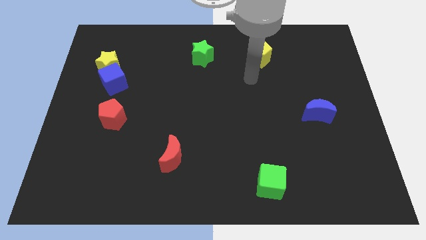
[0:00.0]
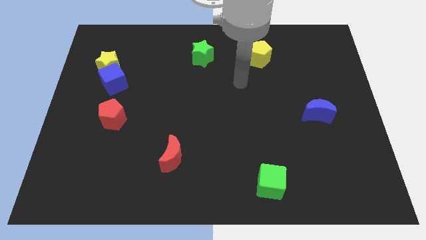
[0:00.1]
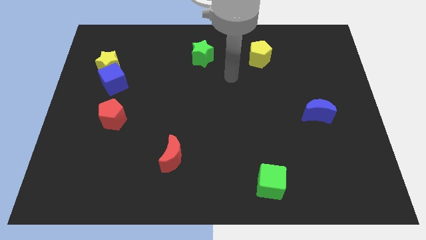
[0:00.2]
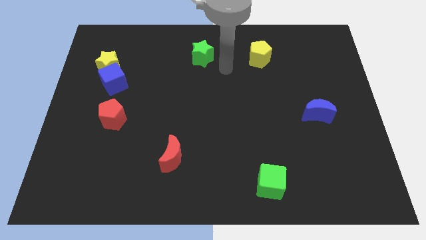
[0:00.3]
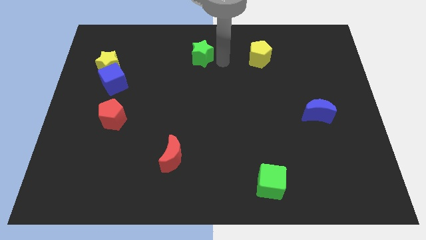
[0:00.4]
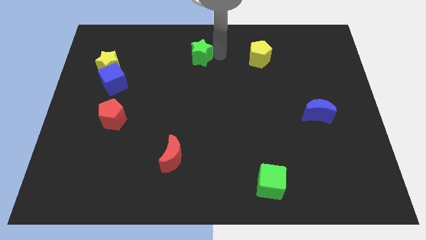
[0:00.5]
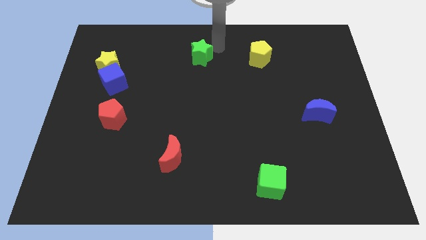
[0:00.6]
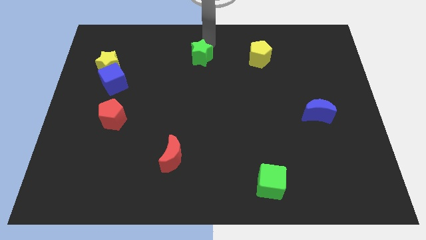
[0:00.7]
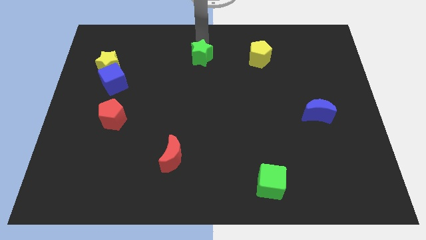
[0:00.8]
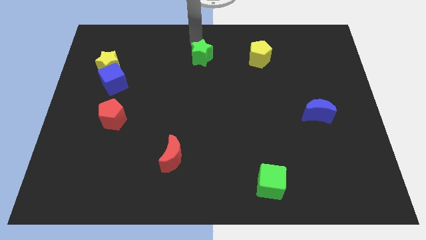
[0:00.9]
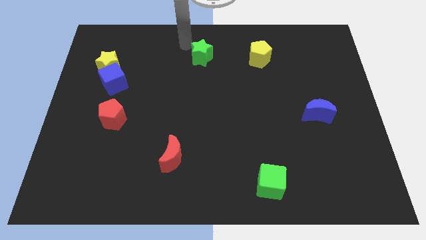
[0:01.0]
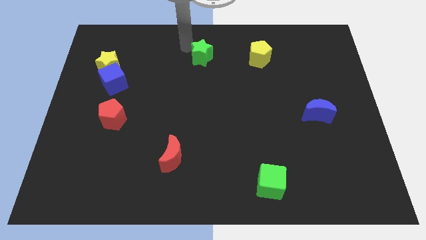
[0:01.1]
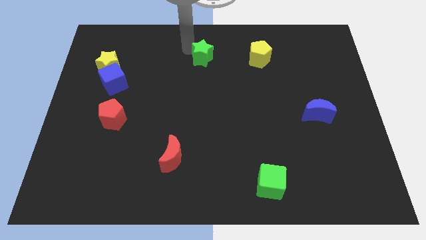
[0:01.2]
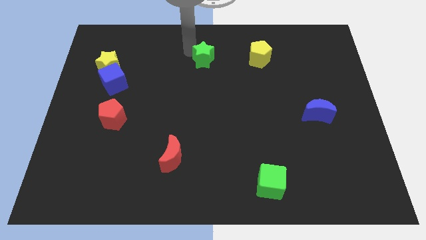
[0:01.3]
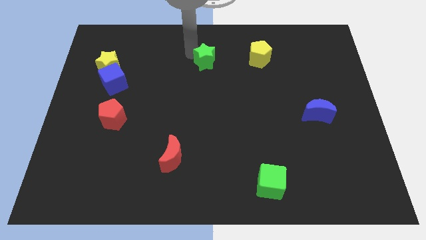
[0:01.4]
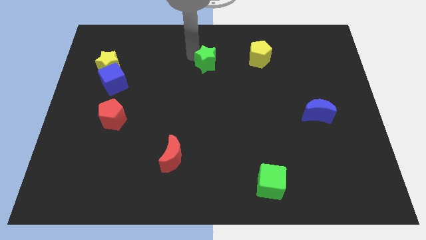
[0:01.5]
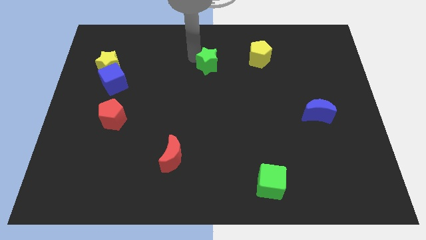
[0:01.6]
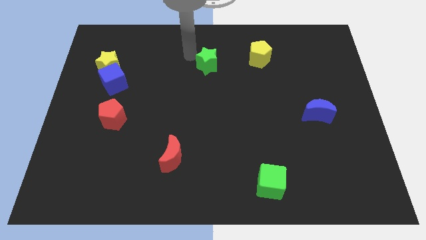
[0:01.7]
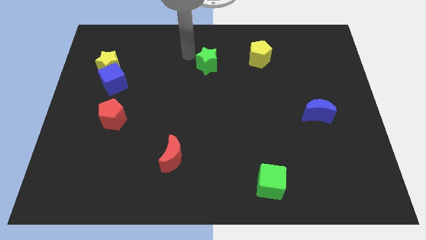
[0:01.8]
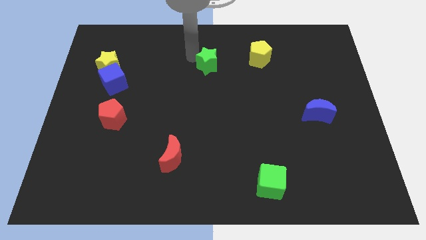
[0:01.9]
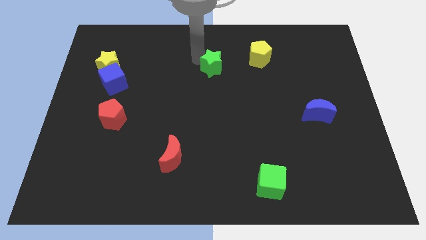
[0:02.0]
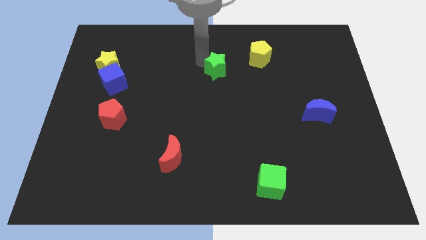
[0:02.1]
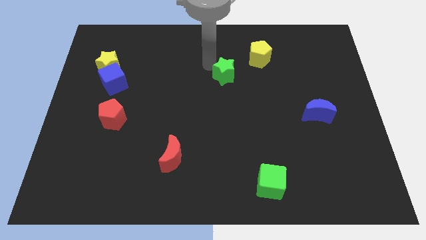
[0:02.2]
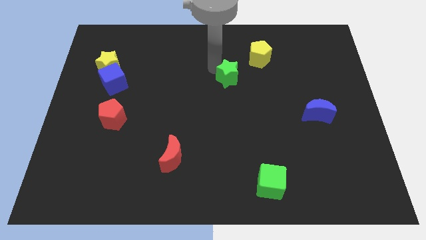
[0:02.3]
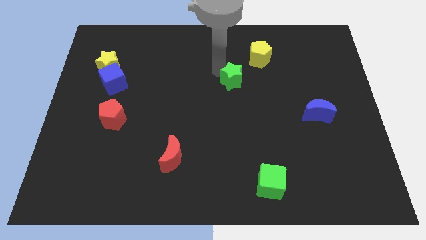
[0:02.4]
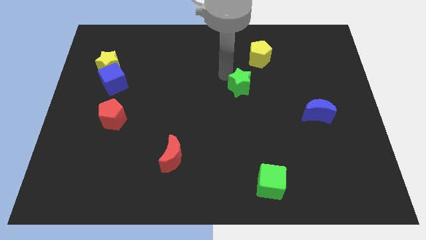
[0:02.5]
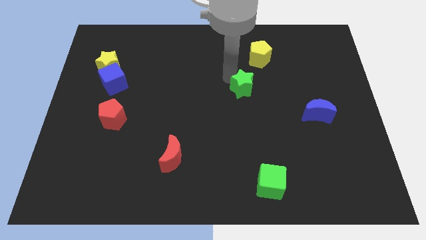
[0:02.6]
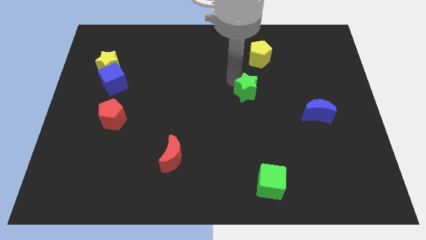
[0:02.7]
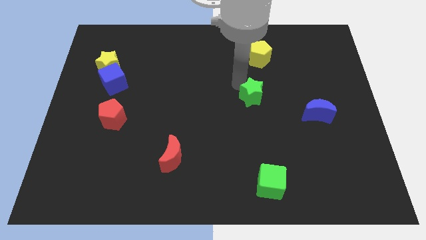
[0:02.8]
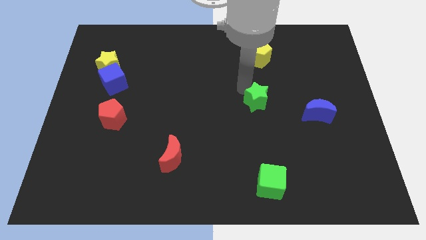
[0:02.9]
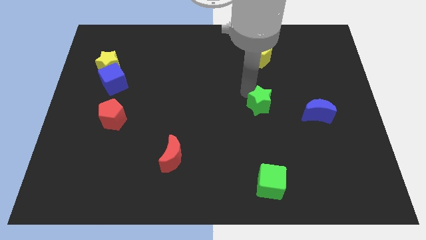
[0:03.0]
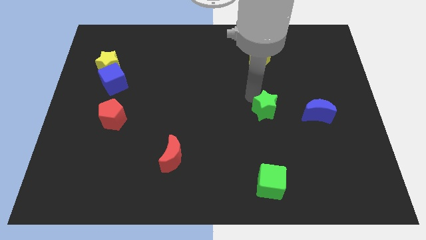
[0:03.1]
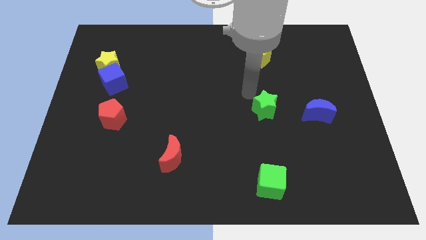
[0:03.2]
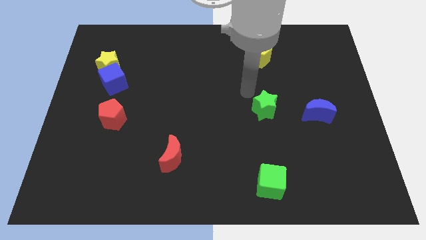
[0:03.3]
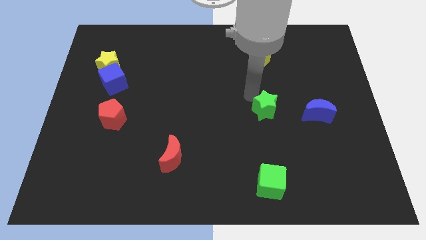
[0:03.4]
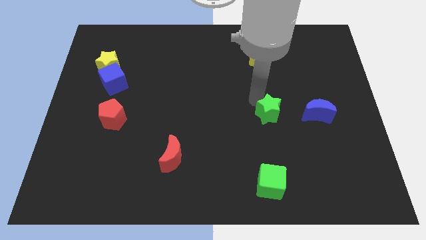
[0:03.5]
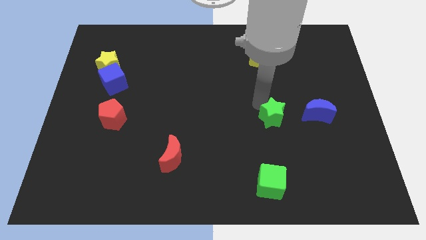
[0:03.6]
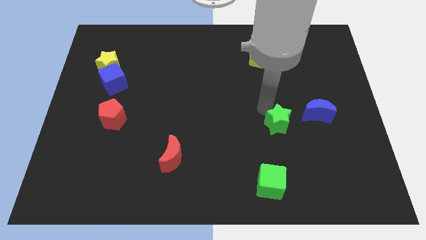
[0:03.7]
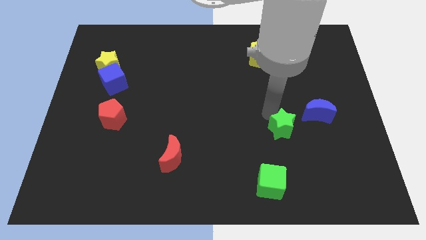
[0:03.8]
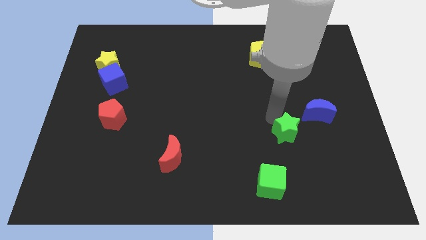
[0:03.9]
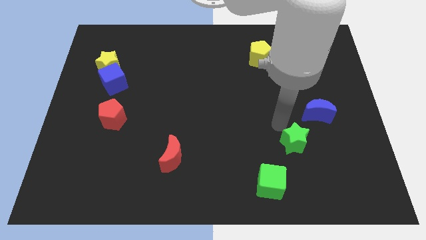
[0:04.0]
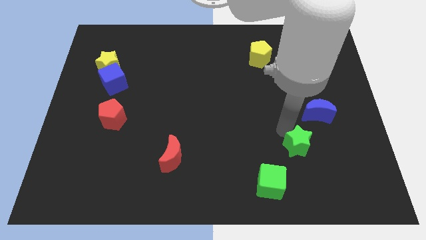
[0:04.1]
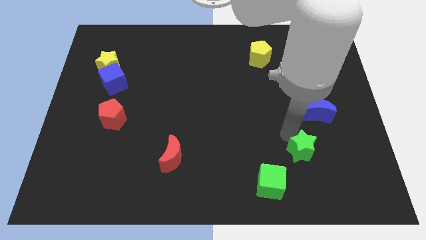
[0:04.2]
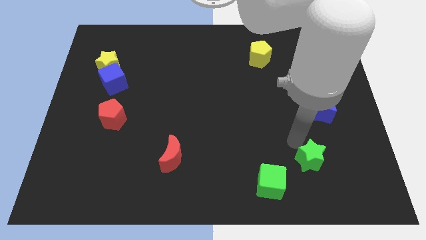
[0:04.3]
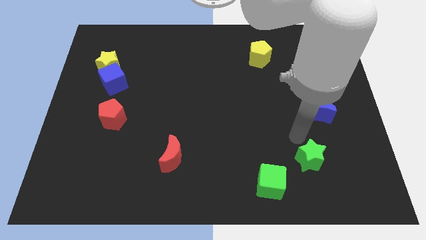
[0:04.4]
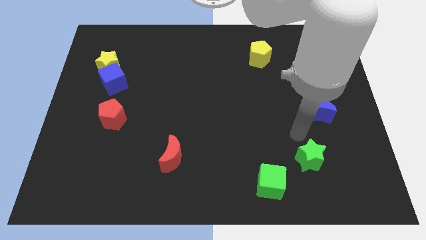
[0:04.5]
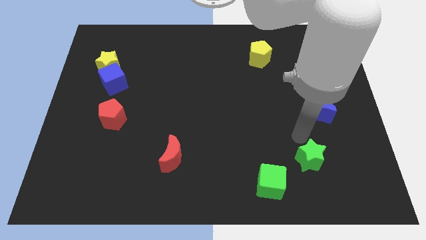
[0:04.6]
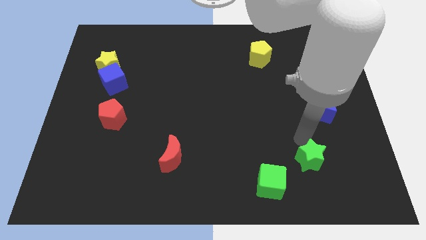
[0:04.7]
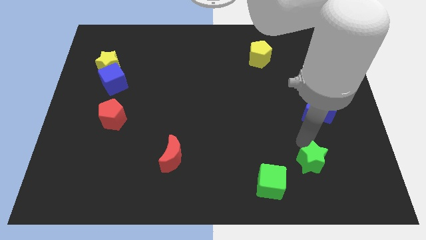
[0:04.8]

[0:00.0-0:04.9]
slide the green star to the right of the green cube

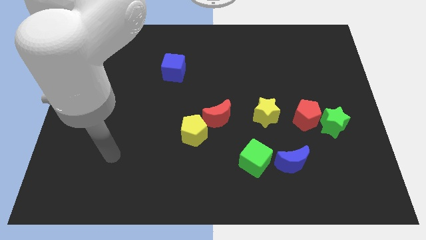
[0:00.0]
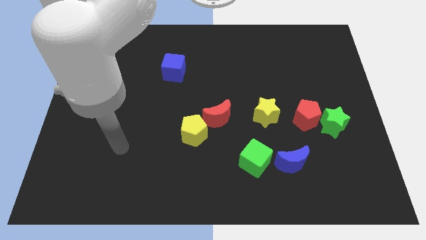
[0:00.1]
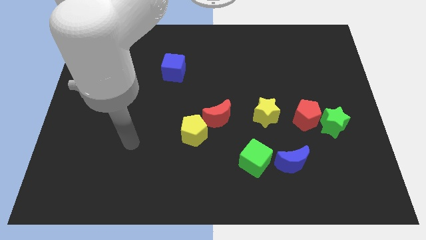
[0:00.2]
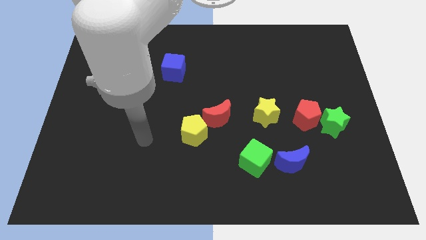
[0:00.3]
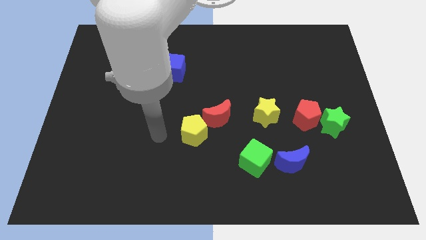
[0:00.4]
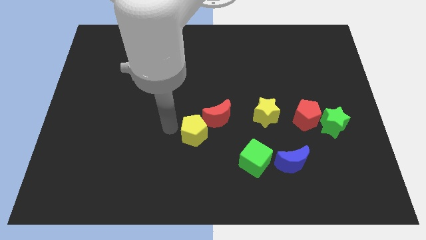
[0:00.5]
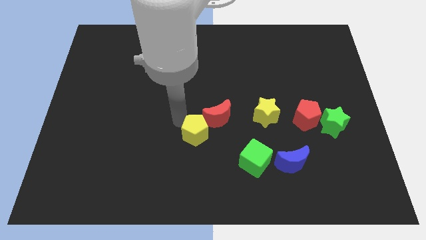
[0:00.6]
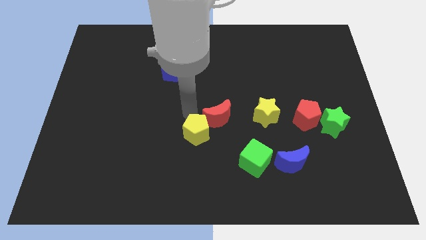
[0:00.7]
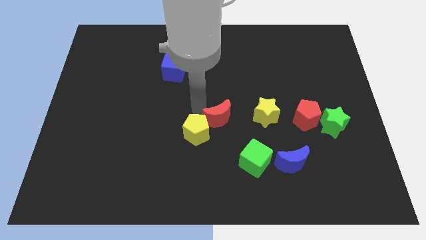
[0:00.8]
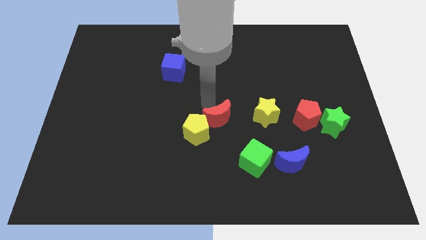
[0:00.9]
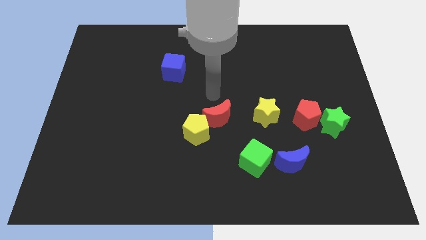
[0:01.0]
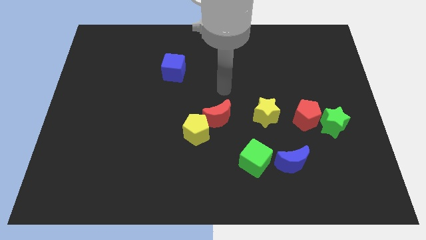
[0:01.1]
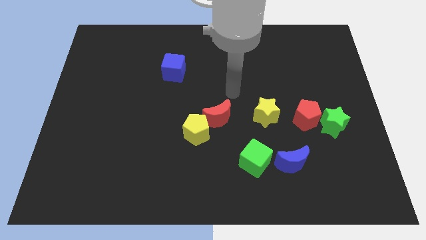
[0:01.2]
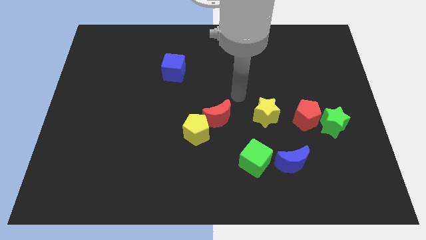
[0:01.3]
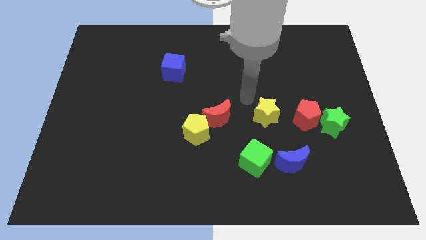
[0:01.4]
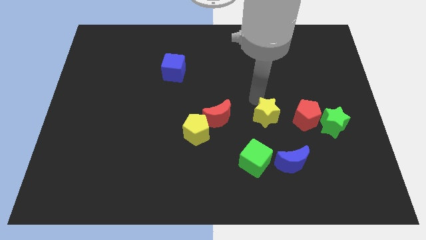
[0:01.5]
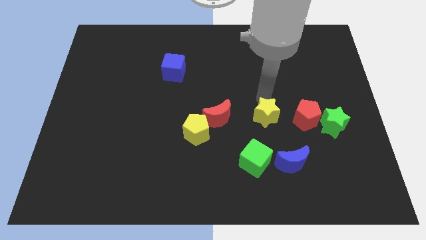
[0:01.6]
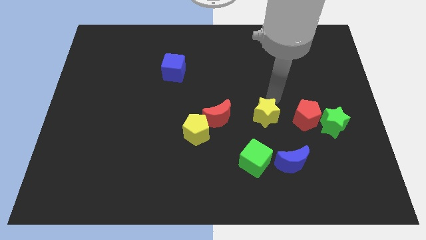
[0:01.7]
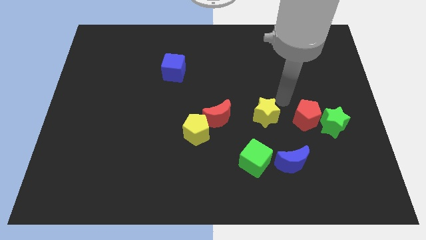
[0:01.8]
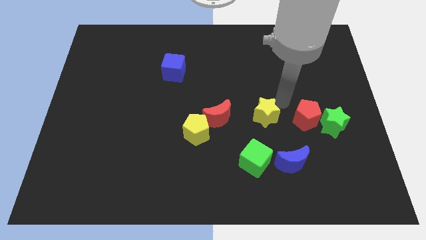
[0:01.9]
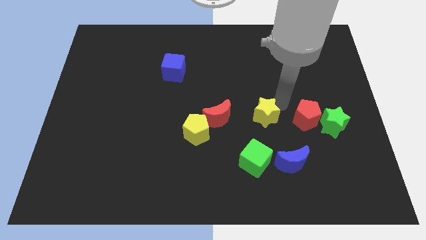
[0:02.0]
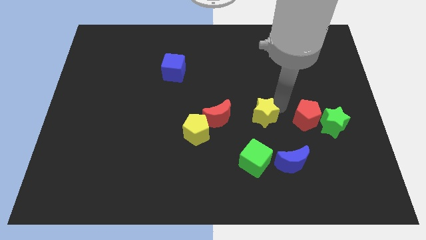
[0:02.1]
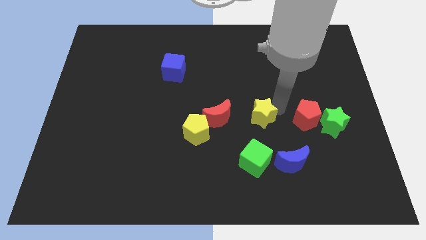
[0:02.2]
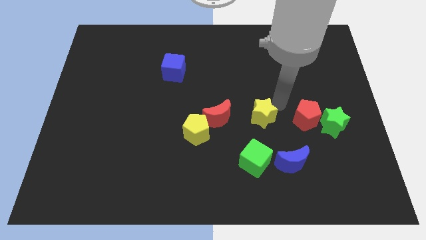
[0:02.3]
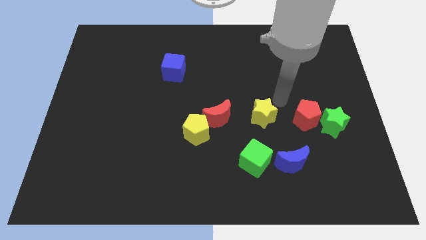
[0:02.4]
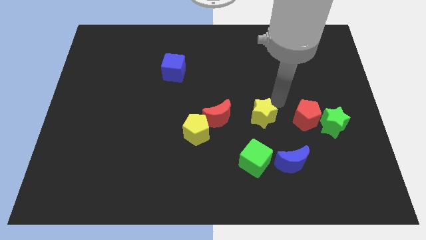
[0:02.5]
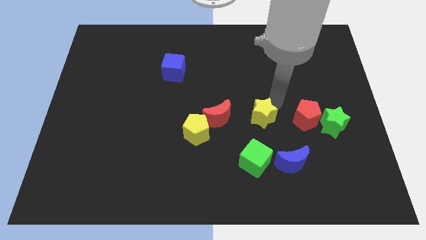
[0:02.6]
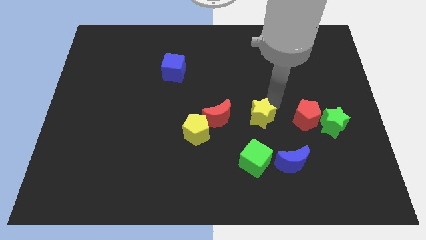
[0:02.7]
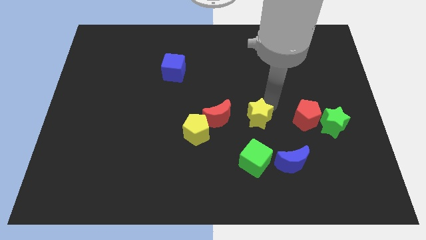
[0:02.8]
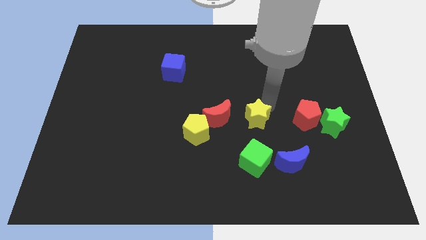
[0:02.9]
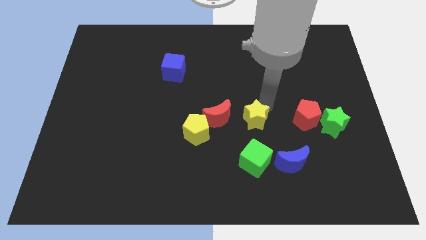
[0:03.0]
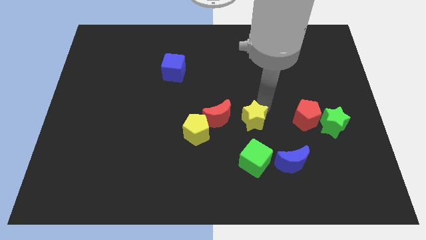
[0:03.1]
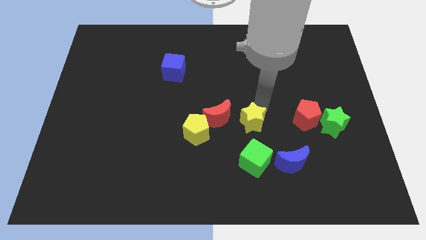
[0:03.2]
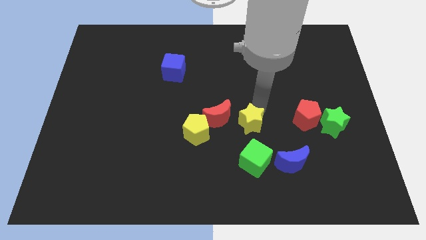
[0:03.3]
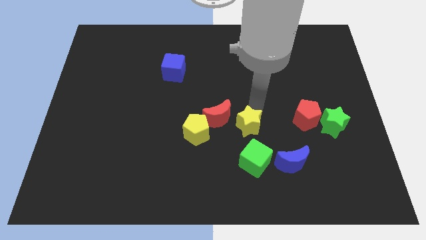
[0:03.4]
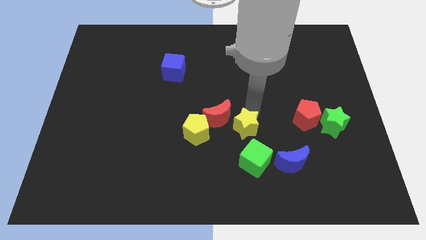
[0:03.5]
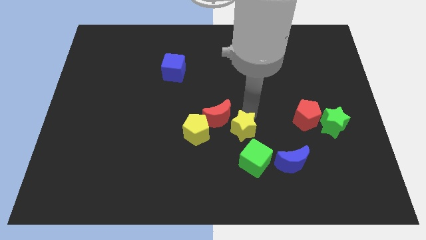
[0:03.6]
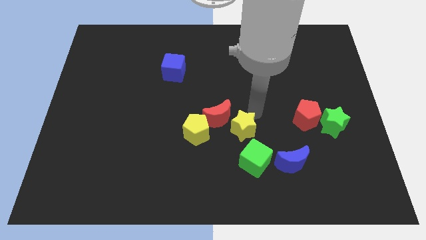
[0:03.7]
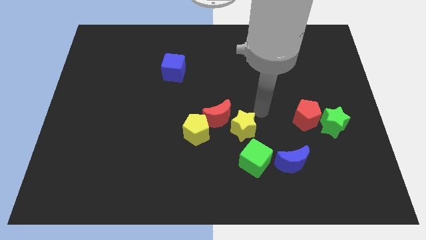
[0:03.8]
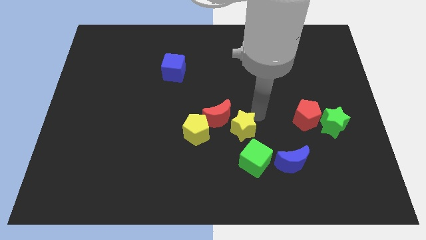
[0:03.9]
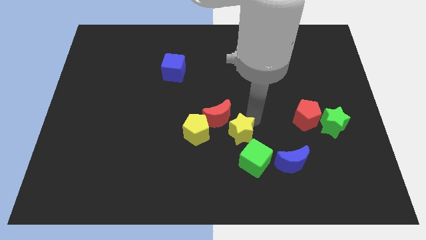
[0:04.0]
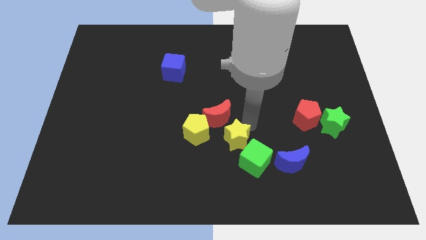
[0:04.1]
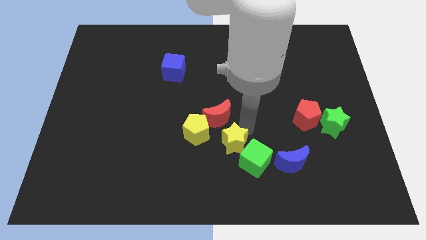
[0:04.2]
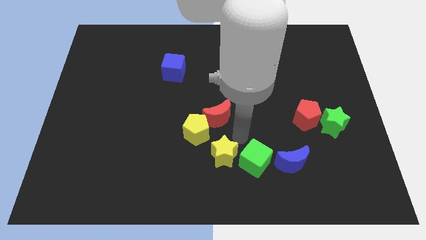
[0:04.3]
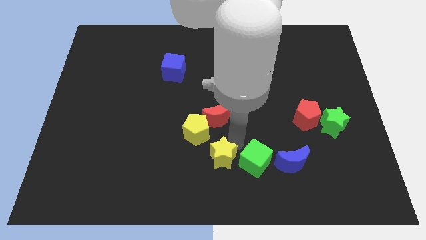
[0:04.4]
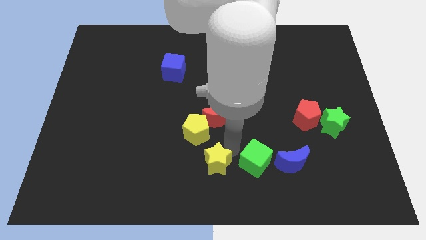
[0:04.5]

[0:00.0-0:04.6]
move the yellow star to the bottom of the yellow pentagon
